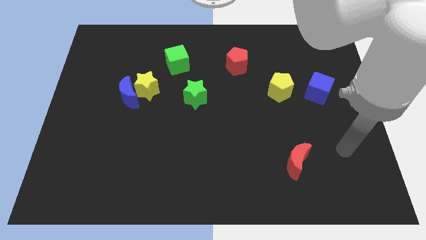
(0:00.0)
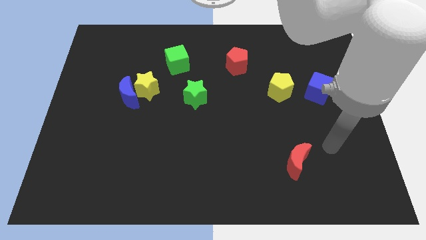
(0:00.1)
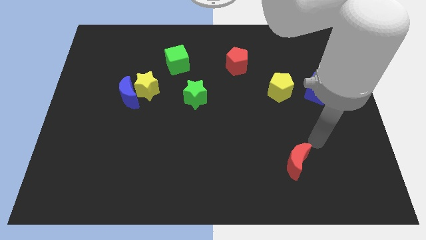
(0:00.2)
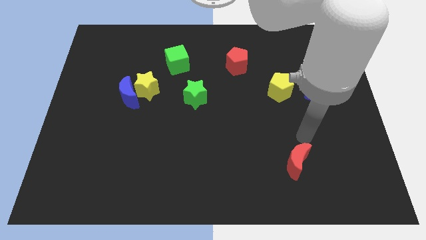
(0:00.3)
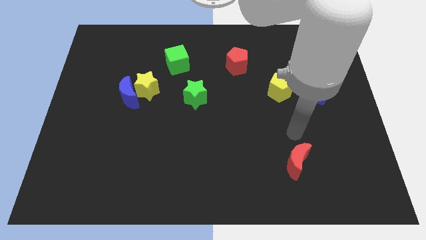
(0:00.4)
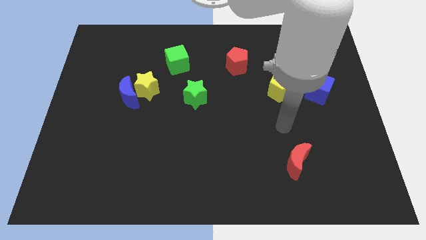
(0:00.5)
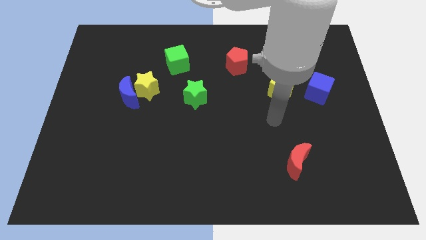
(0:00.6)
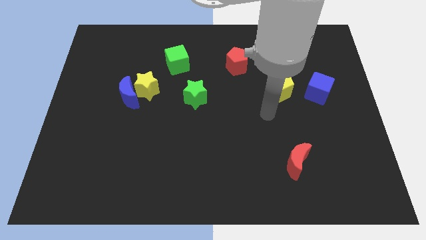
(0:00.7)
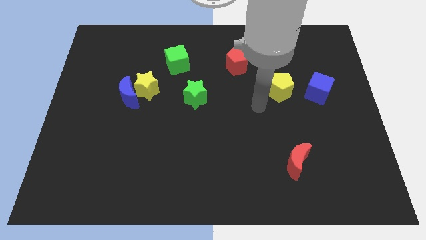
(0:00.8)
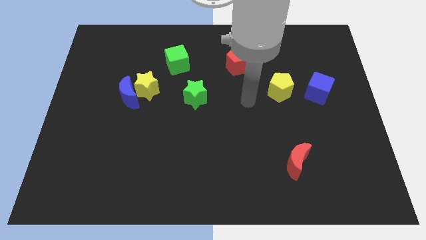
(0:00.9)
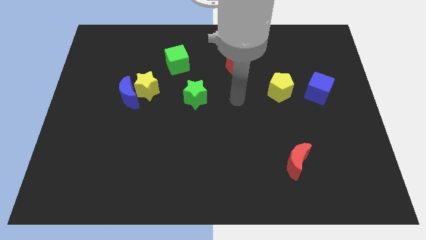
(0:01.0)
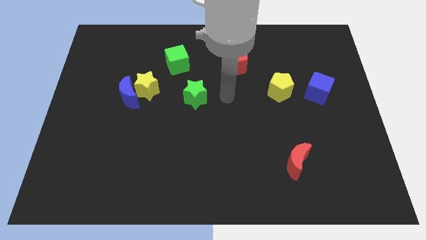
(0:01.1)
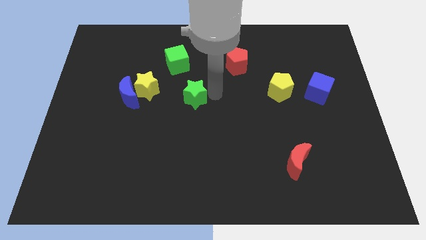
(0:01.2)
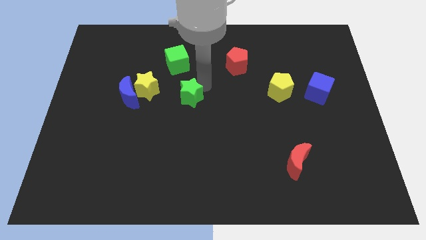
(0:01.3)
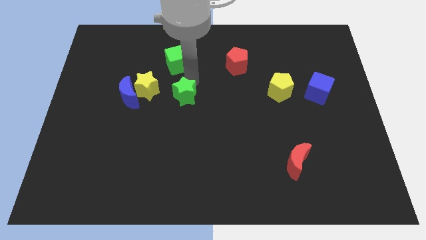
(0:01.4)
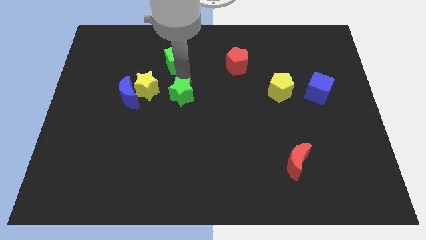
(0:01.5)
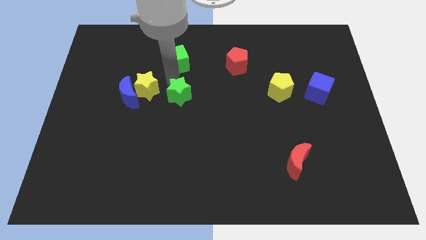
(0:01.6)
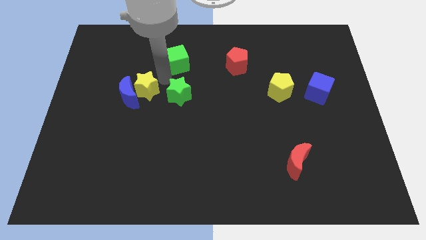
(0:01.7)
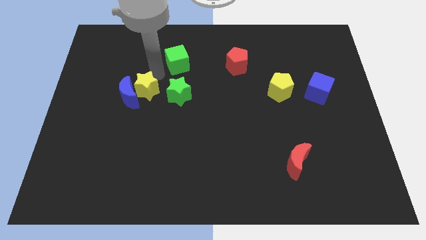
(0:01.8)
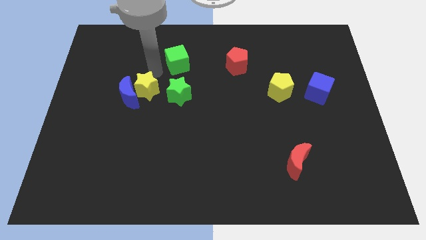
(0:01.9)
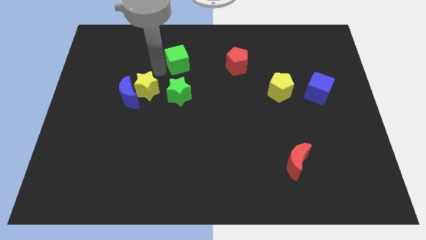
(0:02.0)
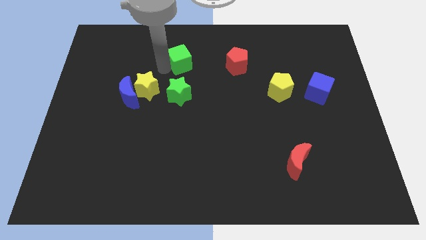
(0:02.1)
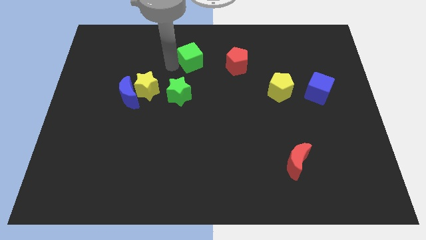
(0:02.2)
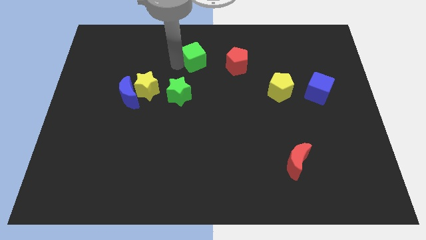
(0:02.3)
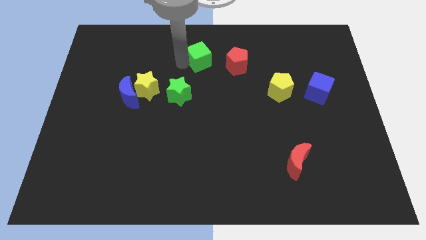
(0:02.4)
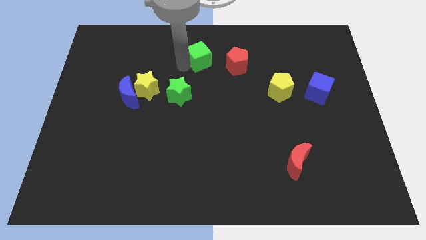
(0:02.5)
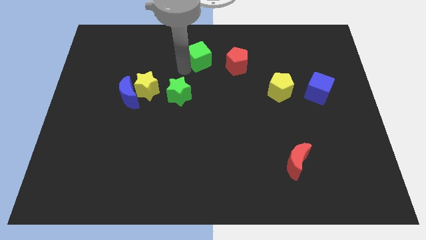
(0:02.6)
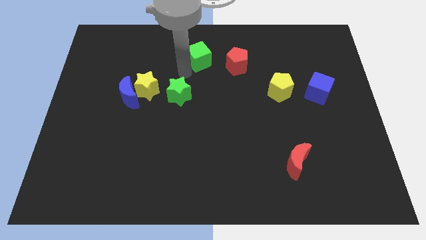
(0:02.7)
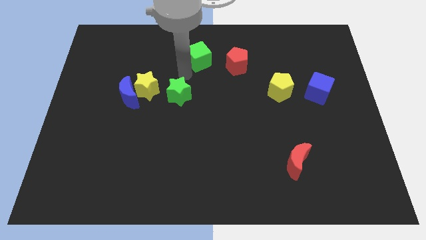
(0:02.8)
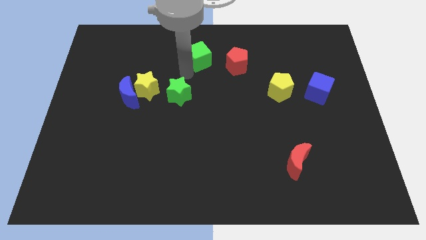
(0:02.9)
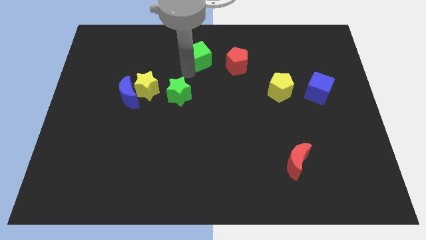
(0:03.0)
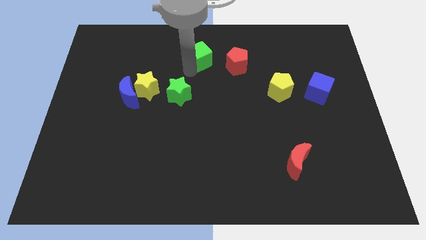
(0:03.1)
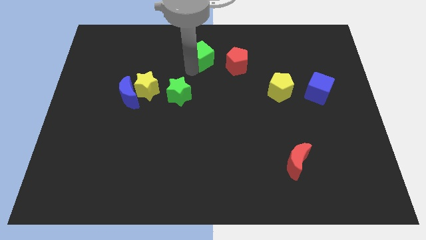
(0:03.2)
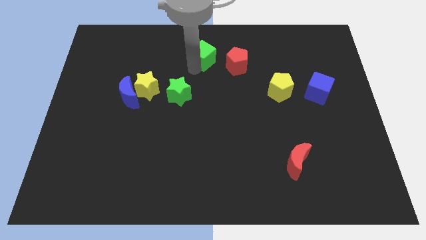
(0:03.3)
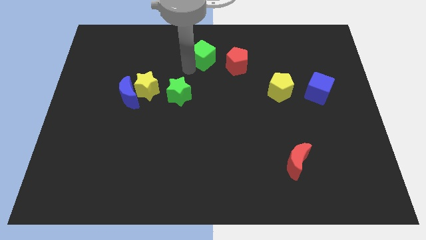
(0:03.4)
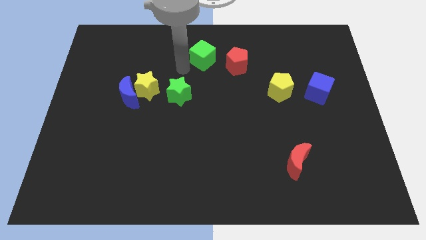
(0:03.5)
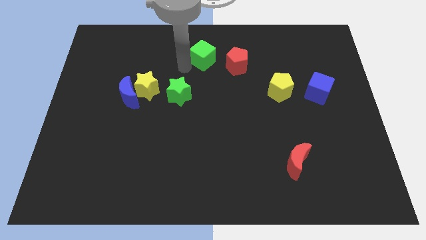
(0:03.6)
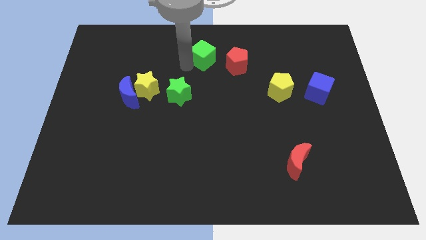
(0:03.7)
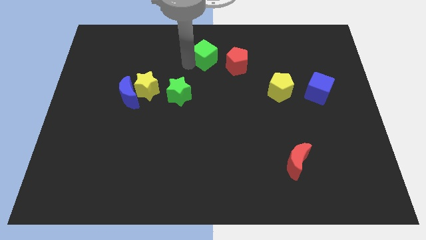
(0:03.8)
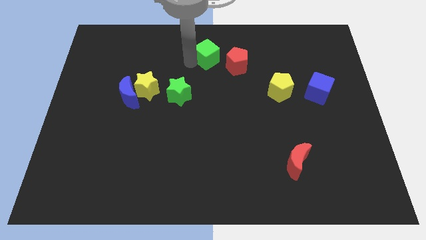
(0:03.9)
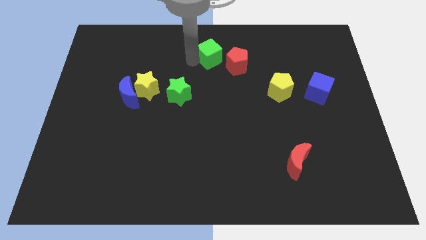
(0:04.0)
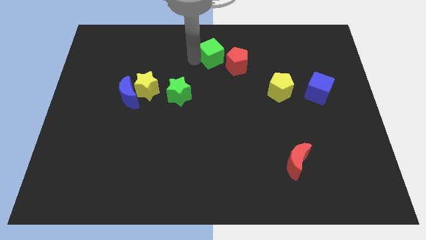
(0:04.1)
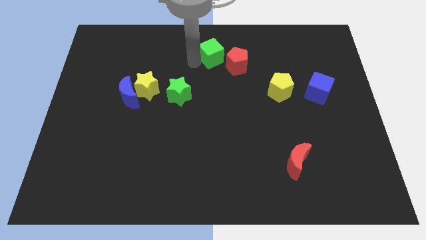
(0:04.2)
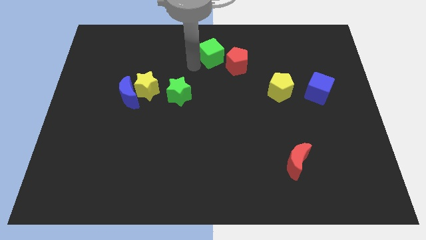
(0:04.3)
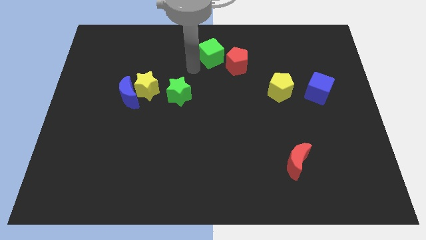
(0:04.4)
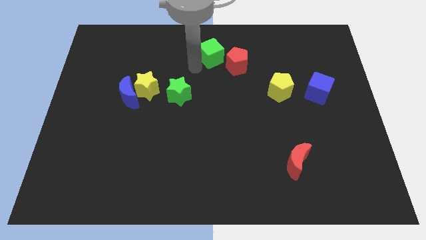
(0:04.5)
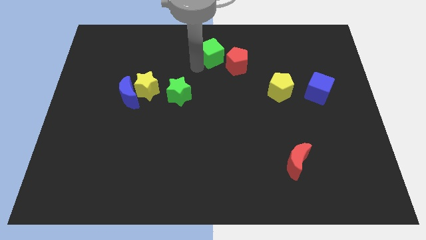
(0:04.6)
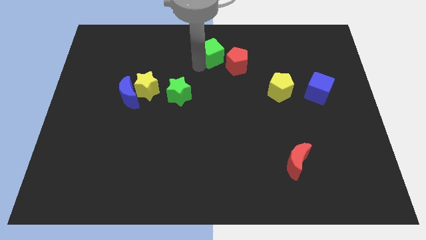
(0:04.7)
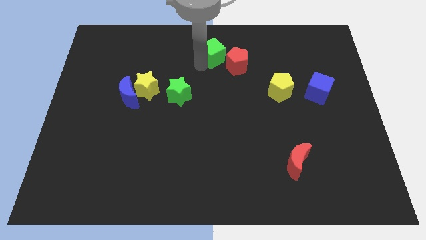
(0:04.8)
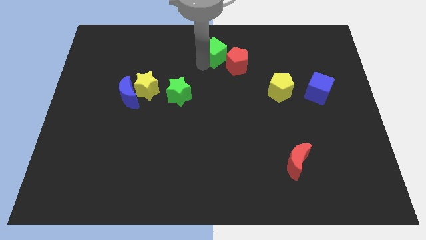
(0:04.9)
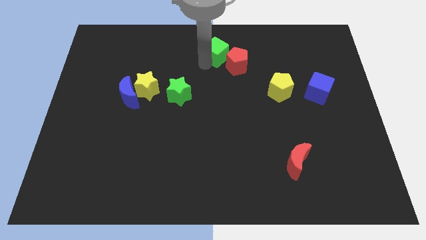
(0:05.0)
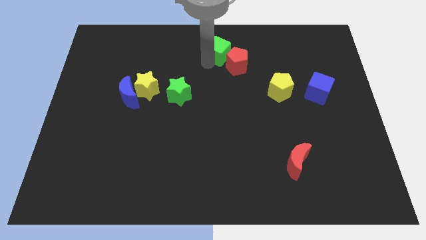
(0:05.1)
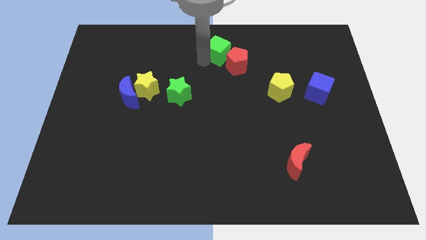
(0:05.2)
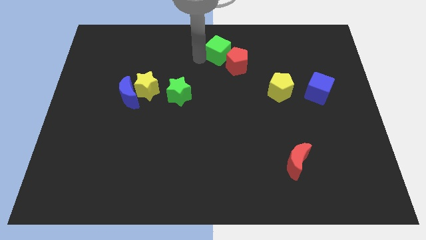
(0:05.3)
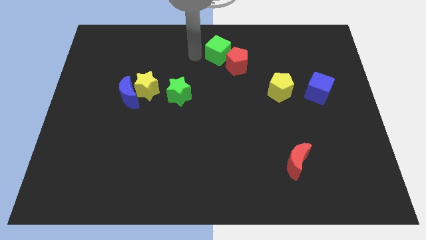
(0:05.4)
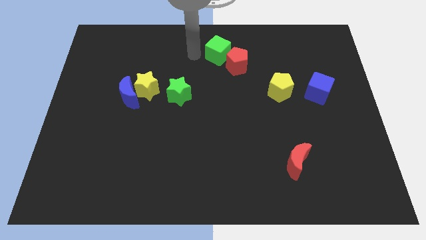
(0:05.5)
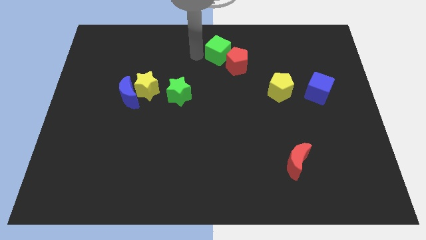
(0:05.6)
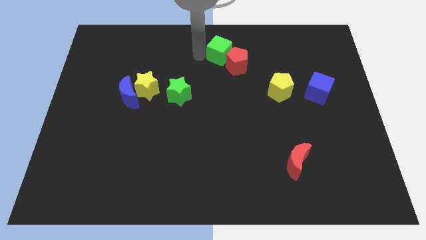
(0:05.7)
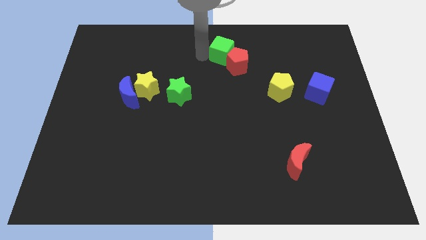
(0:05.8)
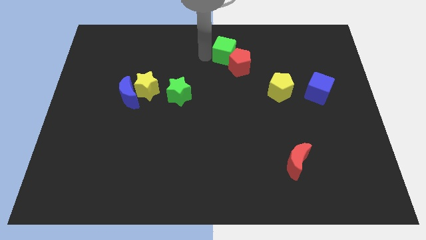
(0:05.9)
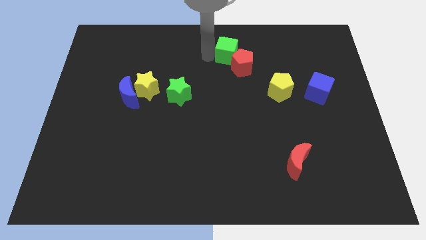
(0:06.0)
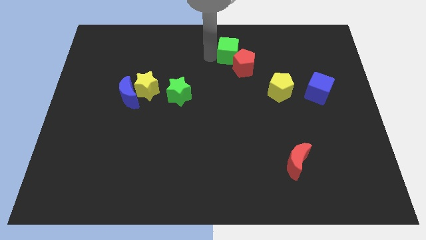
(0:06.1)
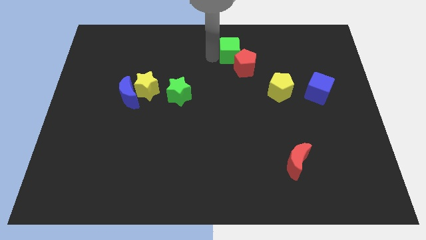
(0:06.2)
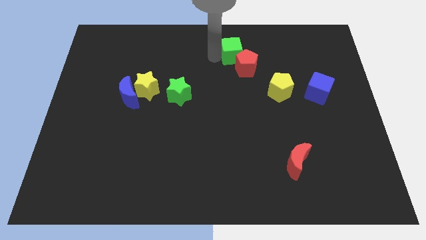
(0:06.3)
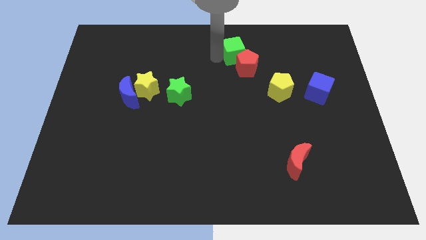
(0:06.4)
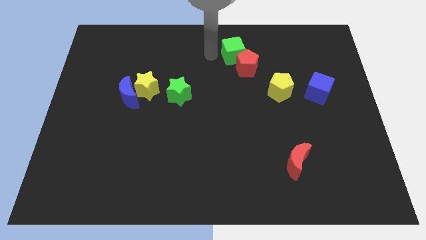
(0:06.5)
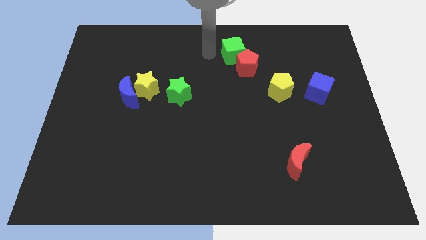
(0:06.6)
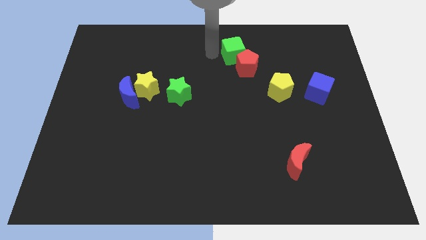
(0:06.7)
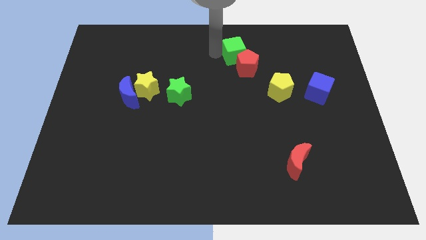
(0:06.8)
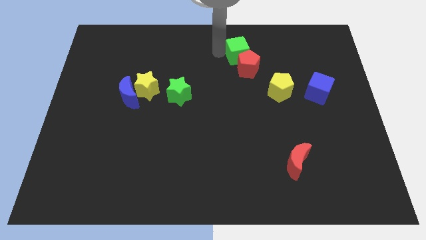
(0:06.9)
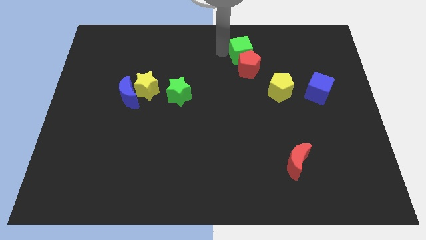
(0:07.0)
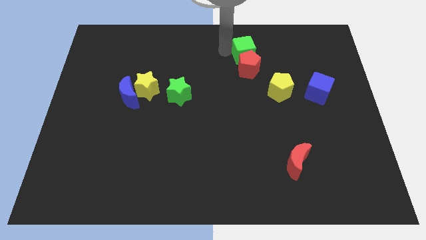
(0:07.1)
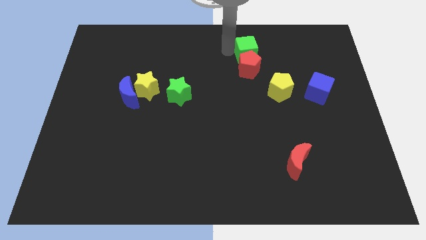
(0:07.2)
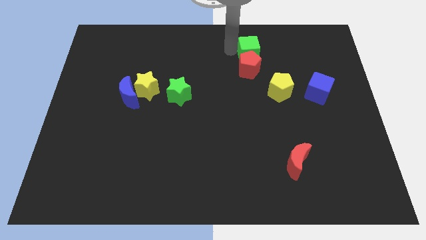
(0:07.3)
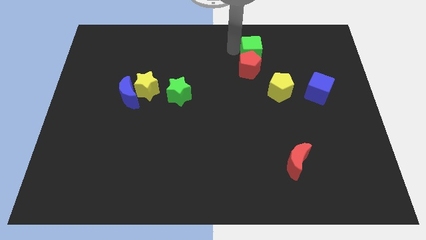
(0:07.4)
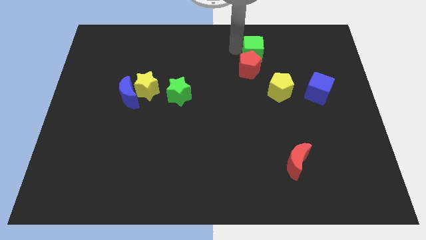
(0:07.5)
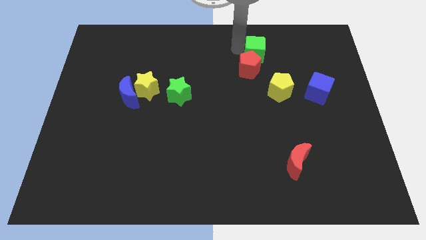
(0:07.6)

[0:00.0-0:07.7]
move the green cube to the right
